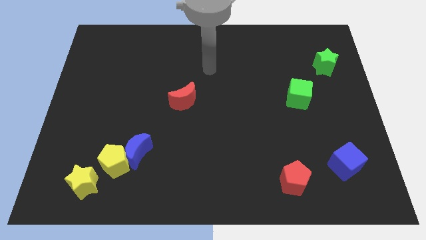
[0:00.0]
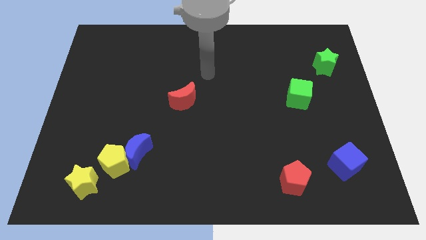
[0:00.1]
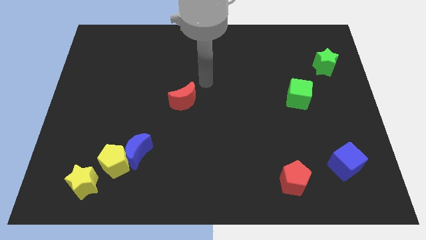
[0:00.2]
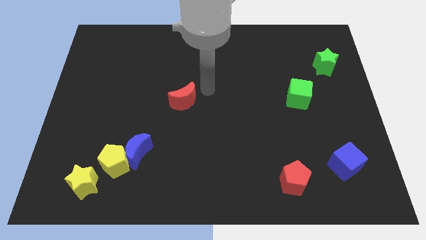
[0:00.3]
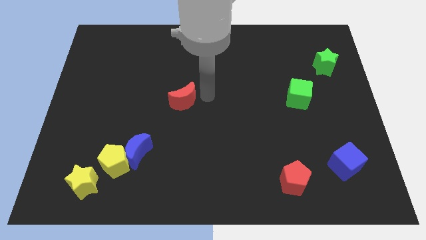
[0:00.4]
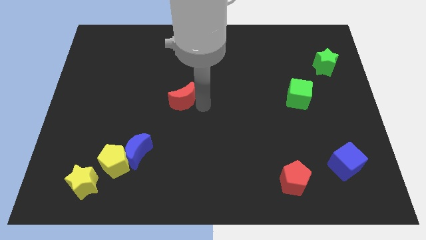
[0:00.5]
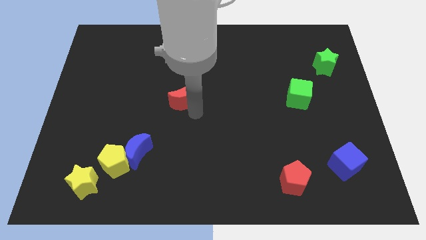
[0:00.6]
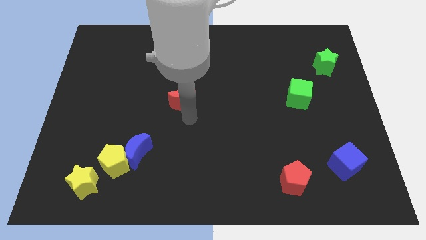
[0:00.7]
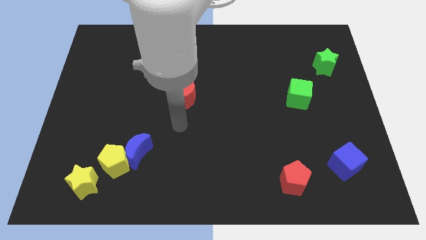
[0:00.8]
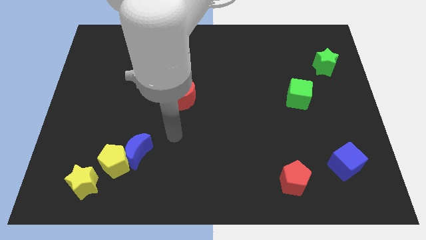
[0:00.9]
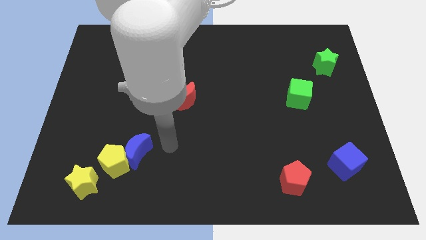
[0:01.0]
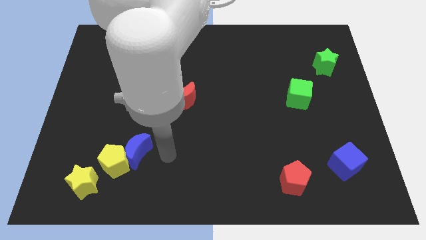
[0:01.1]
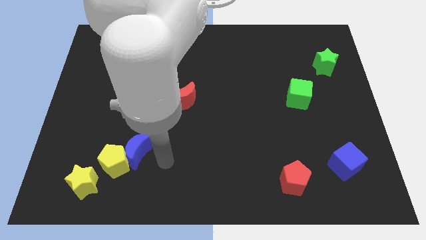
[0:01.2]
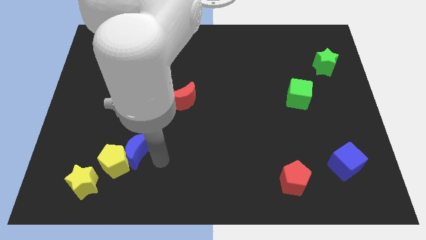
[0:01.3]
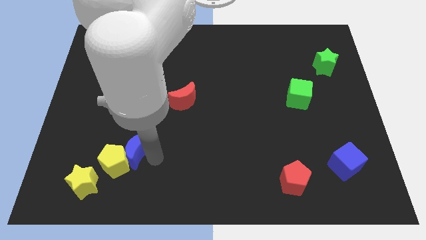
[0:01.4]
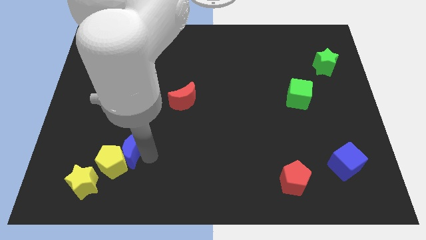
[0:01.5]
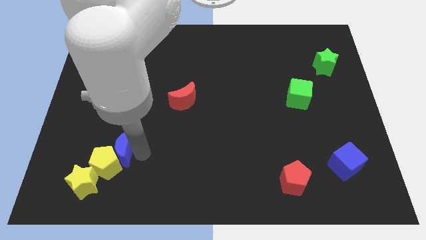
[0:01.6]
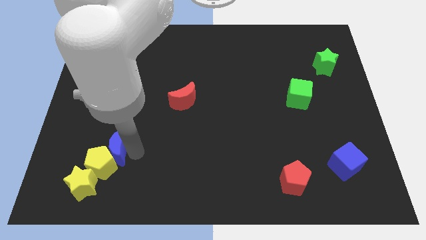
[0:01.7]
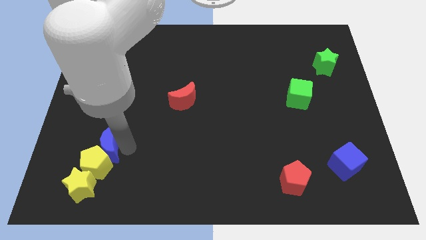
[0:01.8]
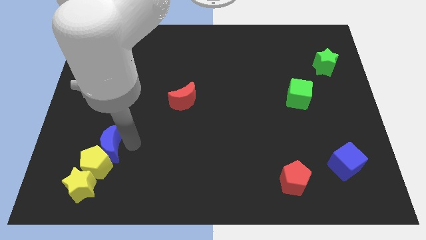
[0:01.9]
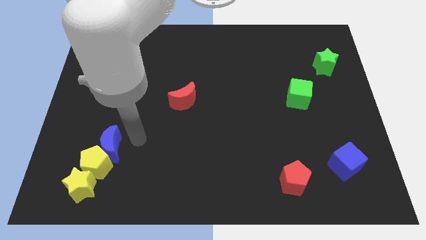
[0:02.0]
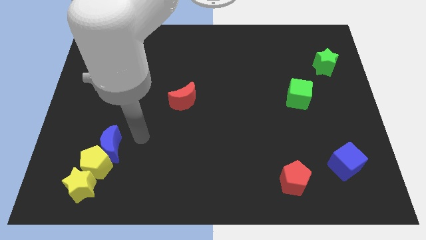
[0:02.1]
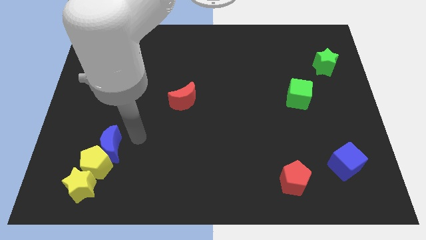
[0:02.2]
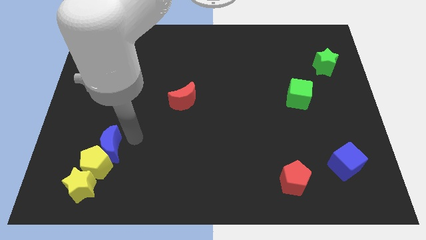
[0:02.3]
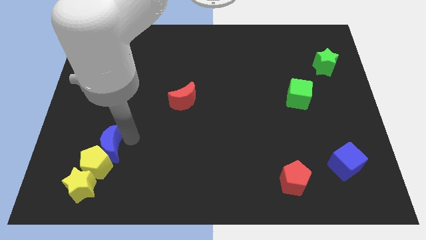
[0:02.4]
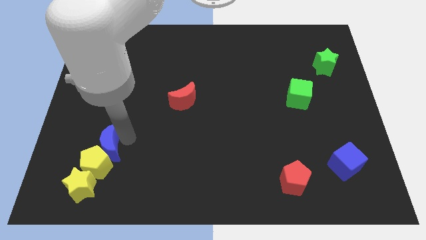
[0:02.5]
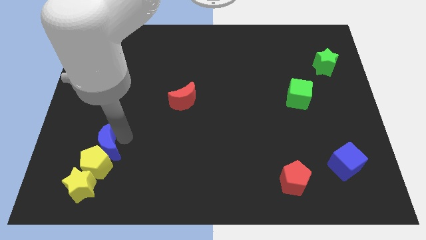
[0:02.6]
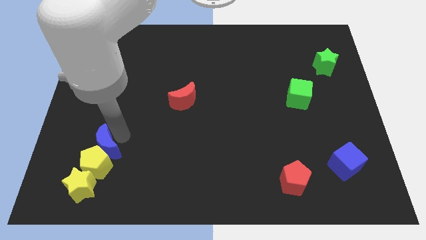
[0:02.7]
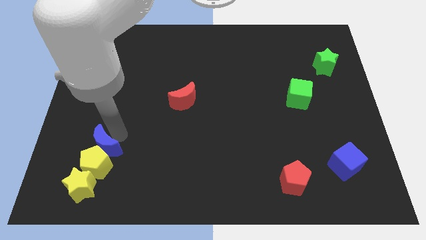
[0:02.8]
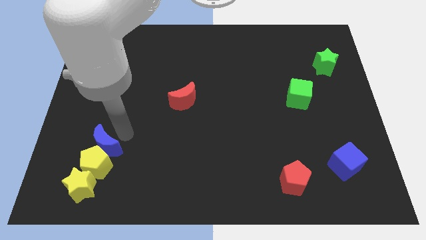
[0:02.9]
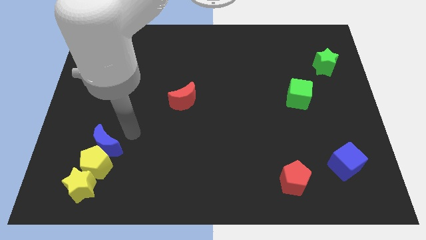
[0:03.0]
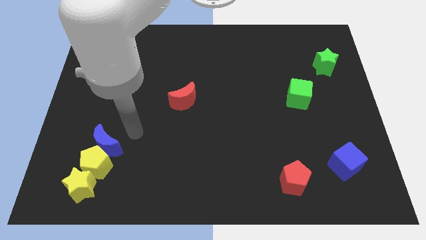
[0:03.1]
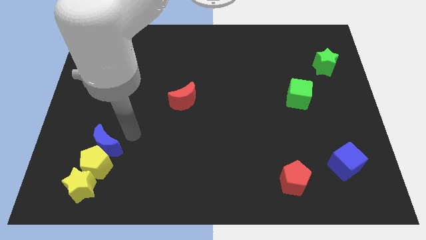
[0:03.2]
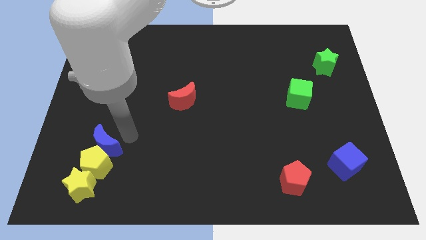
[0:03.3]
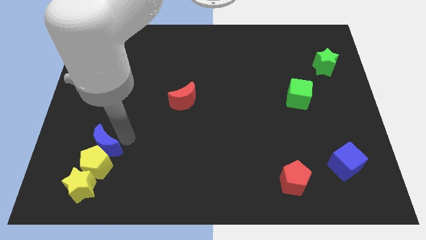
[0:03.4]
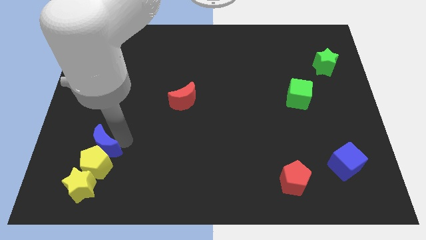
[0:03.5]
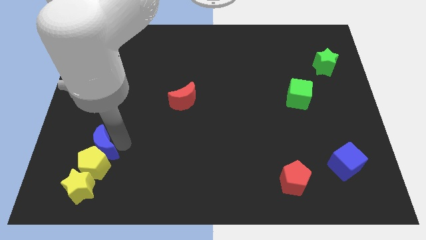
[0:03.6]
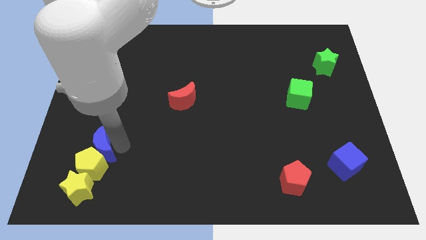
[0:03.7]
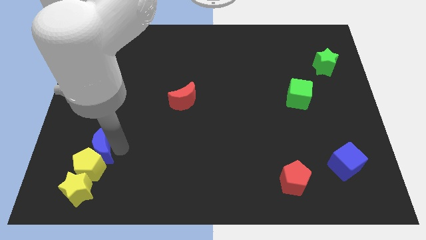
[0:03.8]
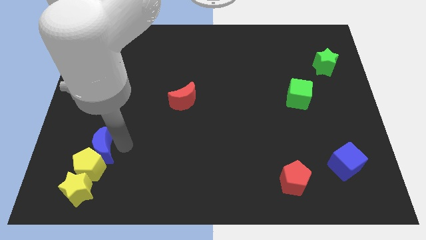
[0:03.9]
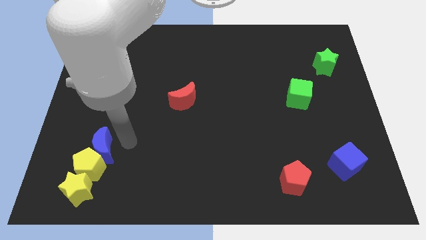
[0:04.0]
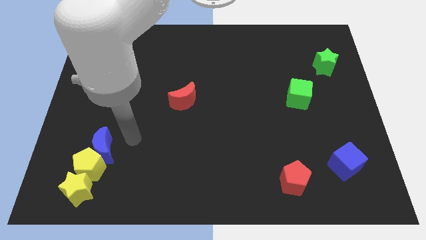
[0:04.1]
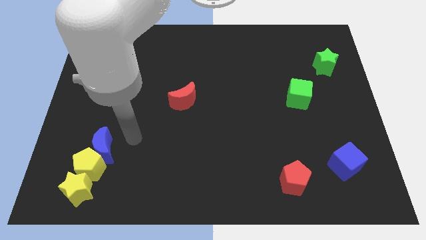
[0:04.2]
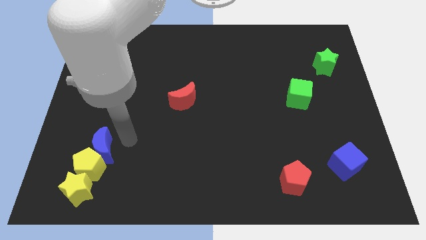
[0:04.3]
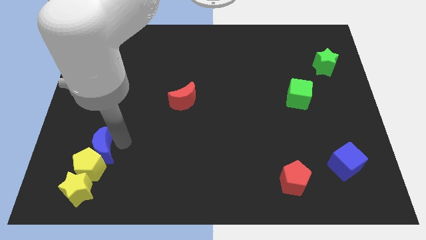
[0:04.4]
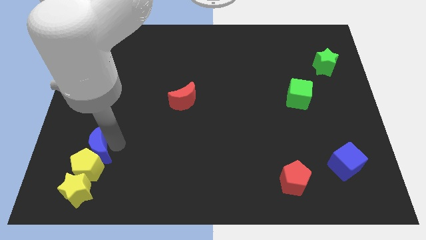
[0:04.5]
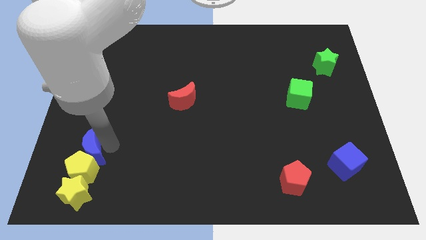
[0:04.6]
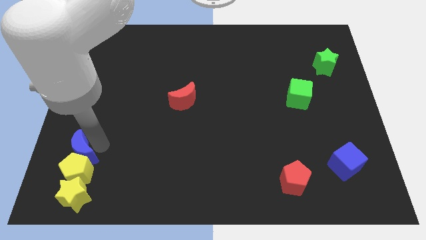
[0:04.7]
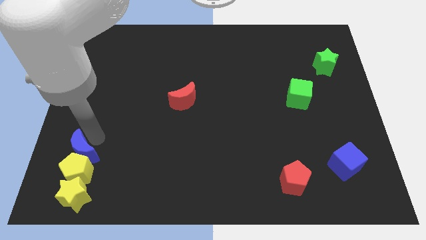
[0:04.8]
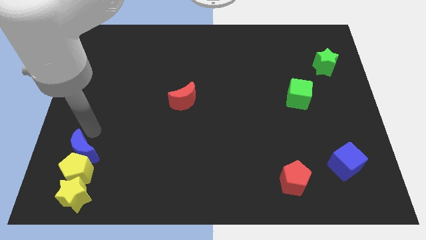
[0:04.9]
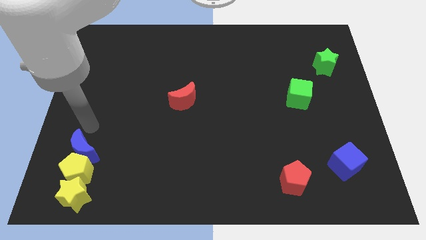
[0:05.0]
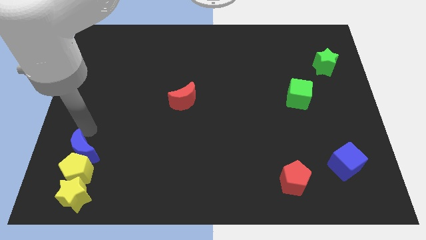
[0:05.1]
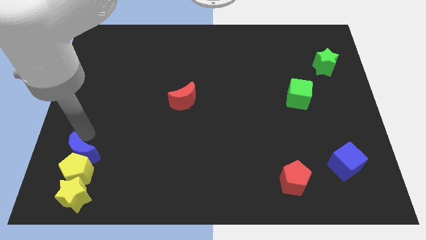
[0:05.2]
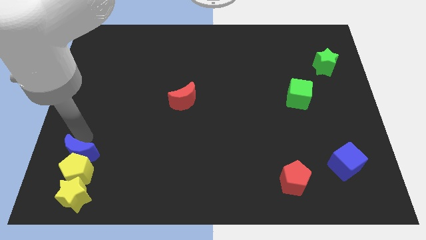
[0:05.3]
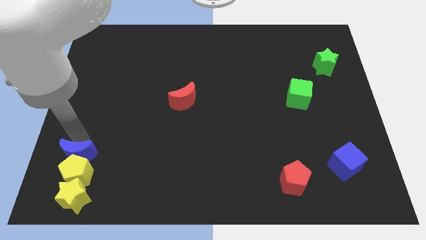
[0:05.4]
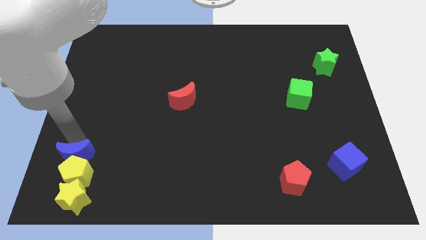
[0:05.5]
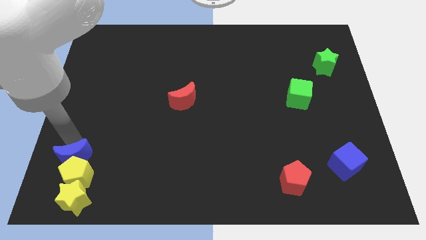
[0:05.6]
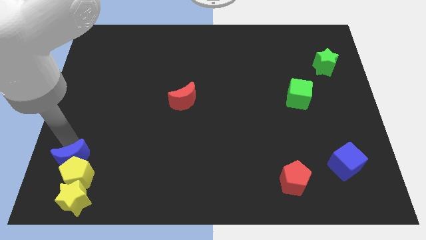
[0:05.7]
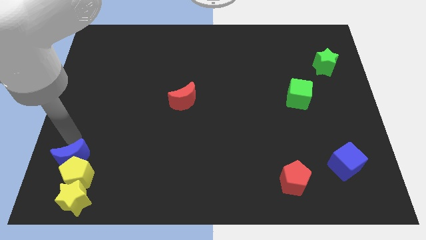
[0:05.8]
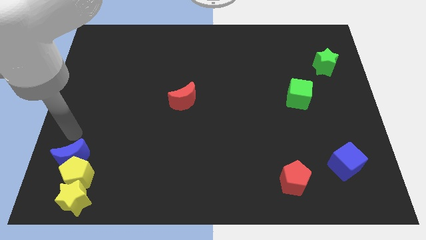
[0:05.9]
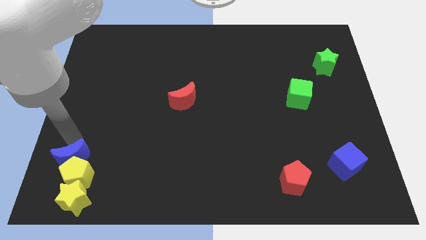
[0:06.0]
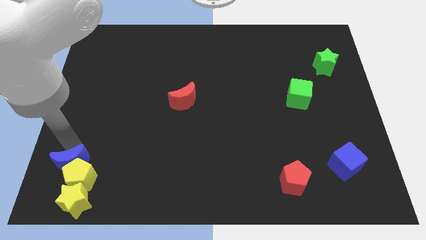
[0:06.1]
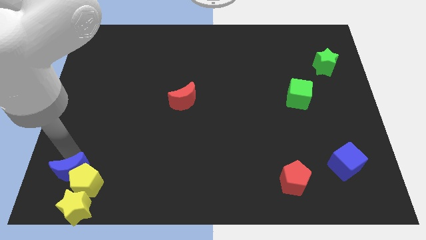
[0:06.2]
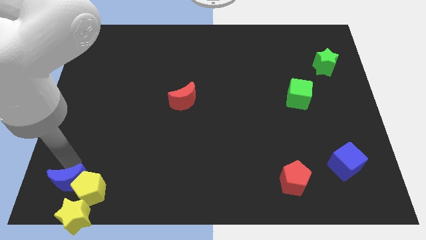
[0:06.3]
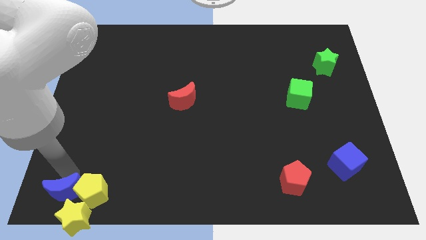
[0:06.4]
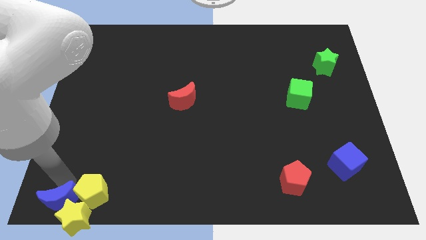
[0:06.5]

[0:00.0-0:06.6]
slide the blue moon to the yellow star

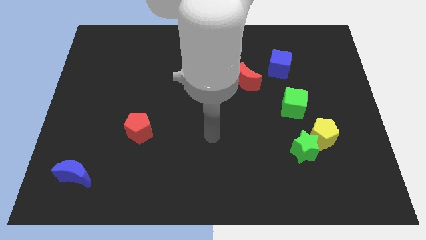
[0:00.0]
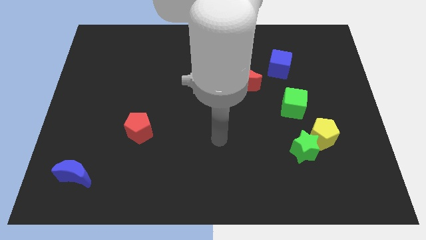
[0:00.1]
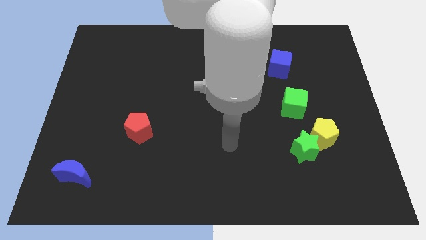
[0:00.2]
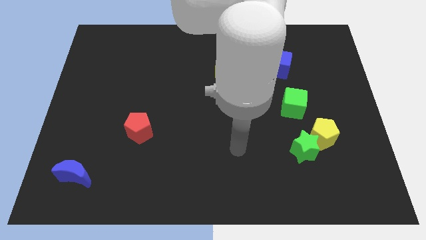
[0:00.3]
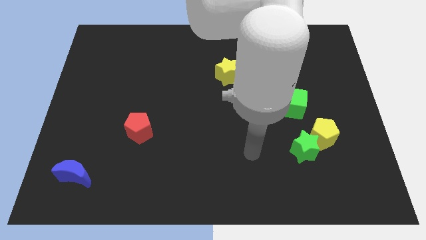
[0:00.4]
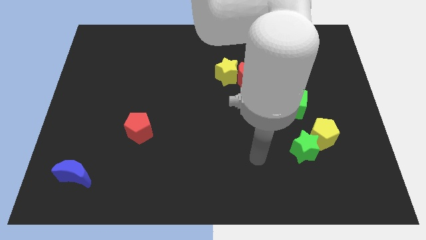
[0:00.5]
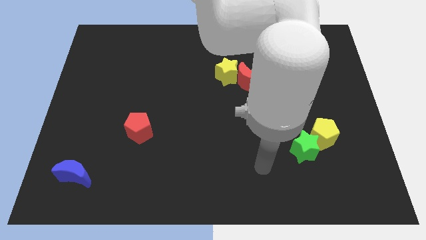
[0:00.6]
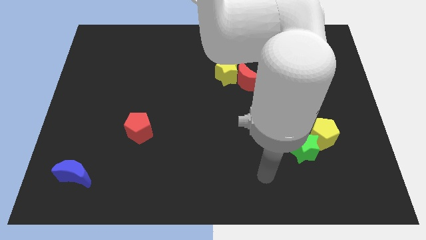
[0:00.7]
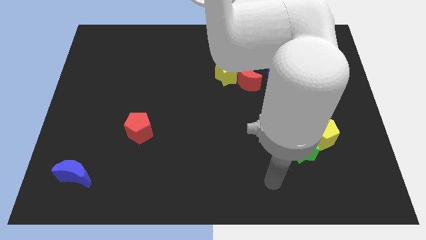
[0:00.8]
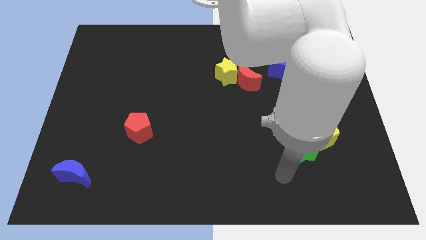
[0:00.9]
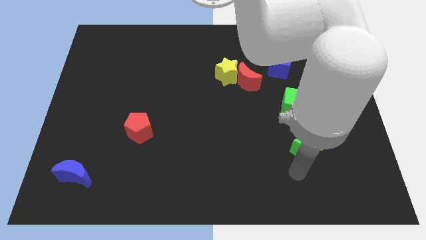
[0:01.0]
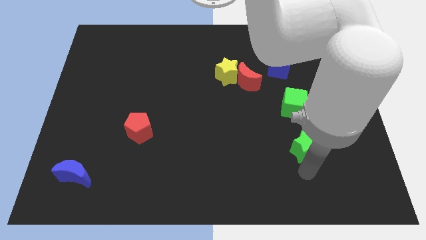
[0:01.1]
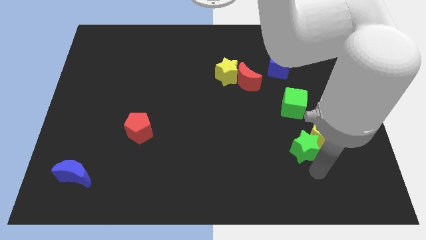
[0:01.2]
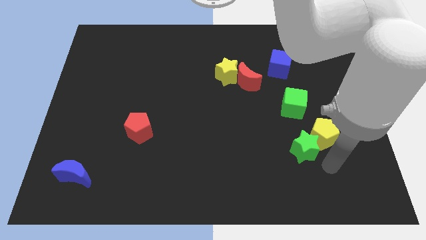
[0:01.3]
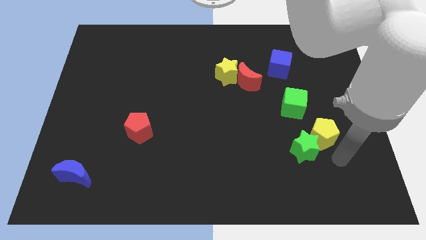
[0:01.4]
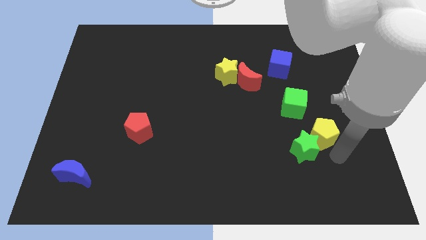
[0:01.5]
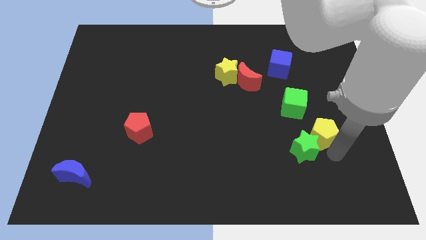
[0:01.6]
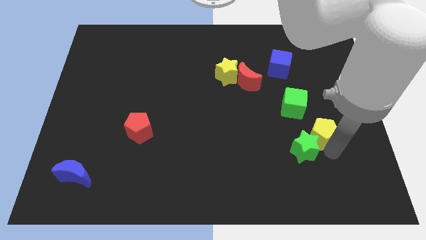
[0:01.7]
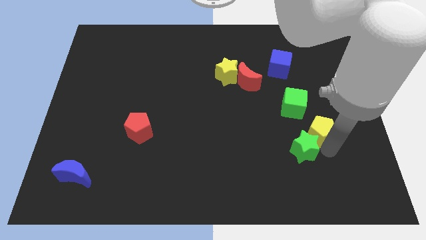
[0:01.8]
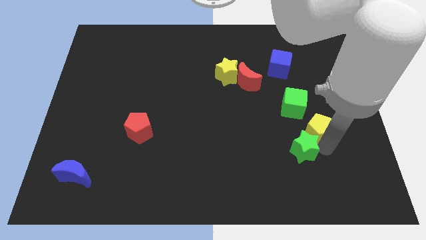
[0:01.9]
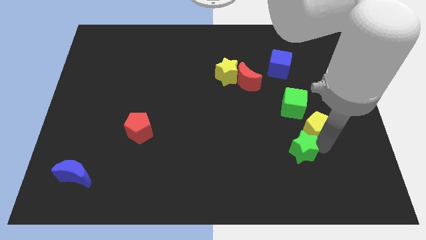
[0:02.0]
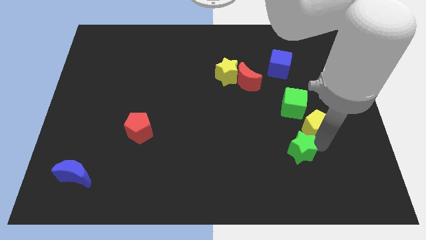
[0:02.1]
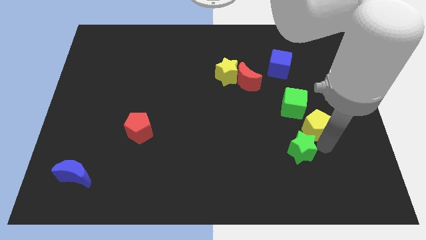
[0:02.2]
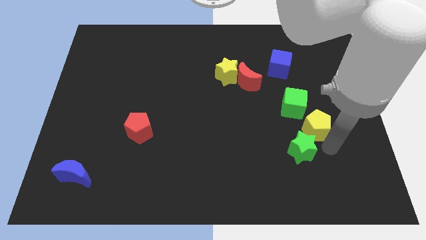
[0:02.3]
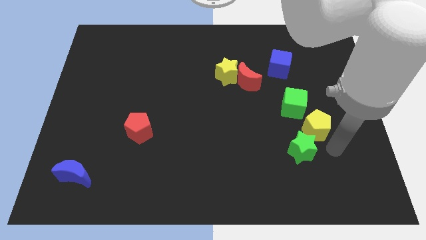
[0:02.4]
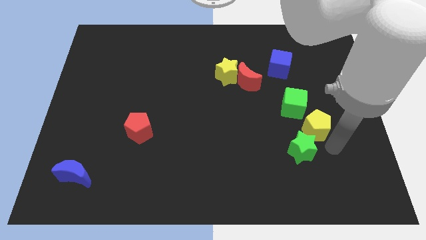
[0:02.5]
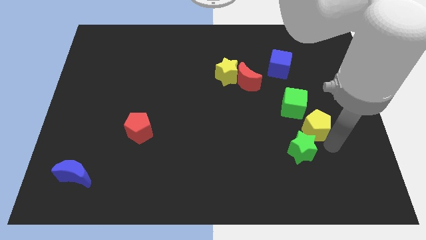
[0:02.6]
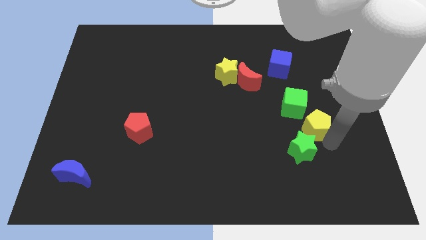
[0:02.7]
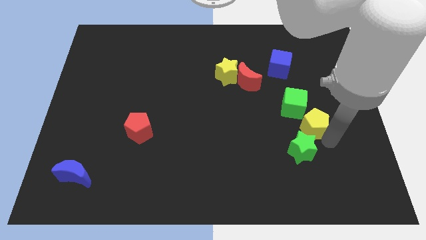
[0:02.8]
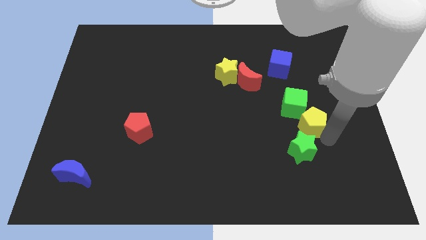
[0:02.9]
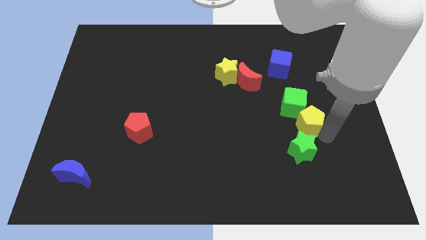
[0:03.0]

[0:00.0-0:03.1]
move the yellow pentagon to the green cube
